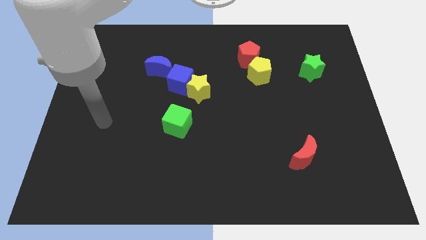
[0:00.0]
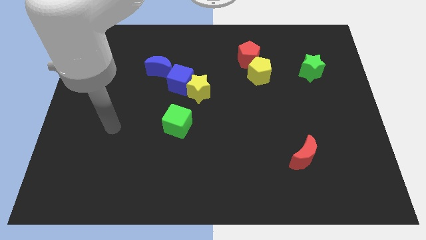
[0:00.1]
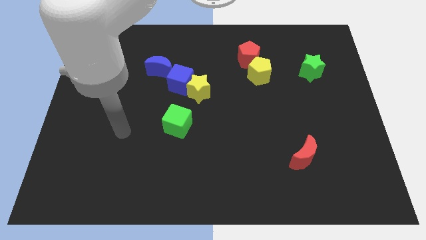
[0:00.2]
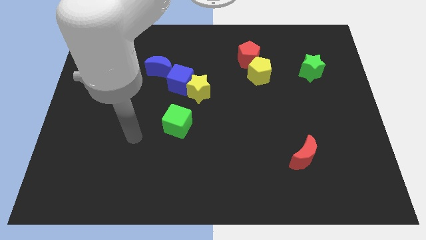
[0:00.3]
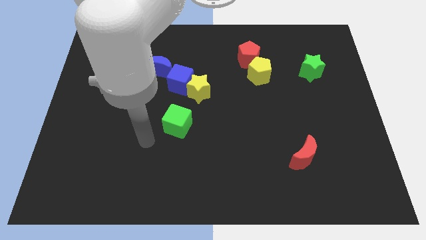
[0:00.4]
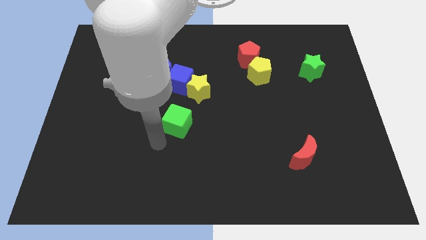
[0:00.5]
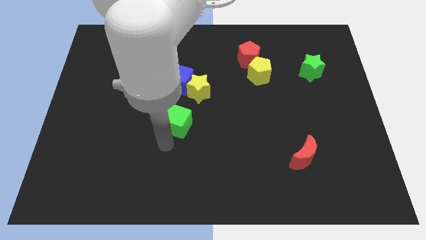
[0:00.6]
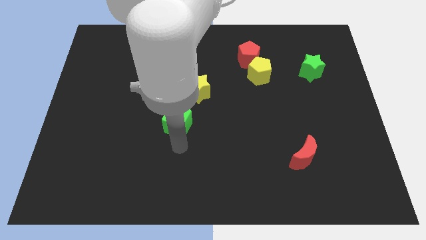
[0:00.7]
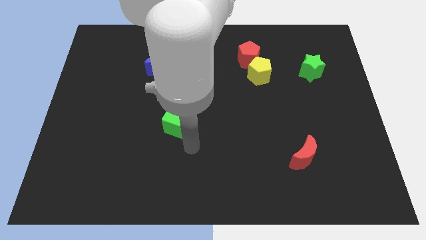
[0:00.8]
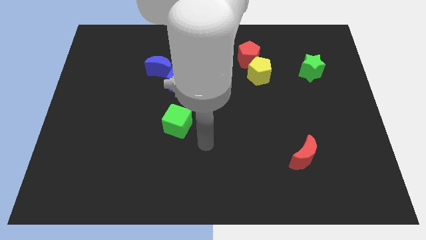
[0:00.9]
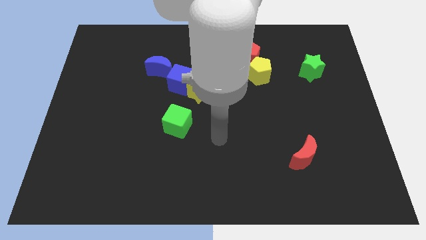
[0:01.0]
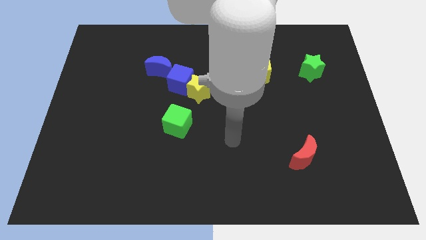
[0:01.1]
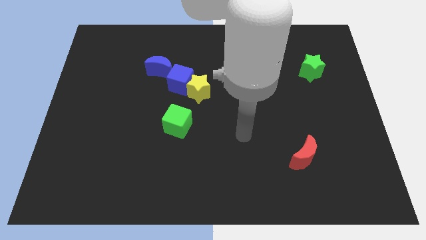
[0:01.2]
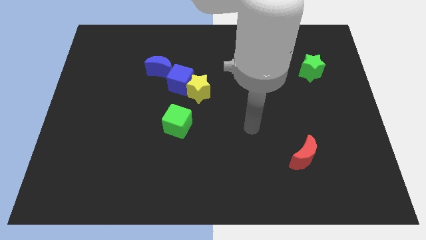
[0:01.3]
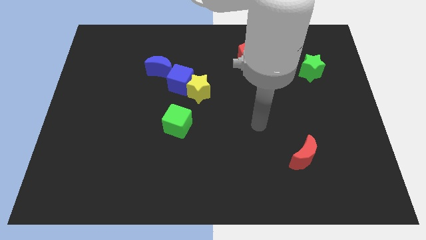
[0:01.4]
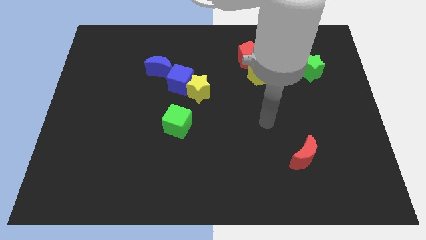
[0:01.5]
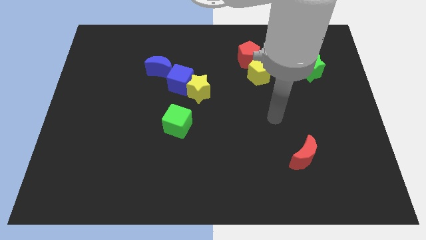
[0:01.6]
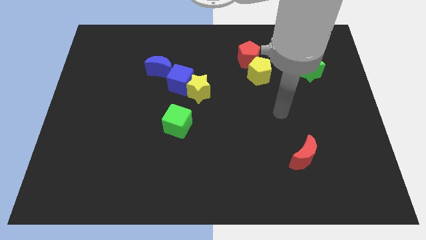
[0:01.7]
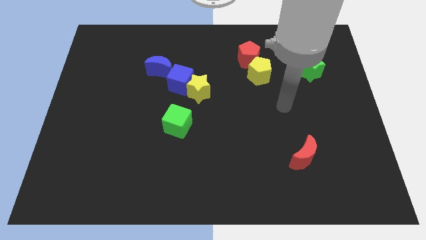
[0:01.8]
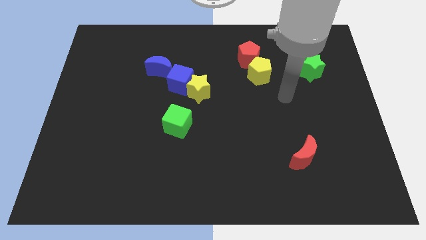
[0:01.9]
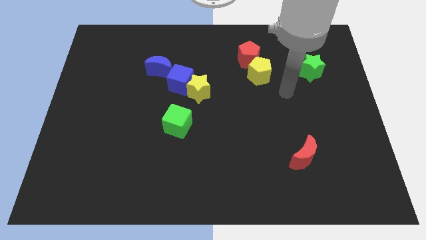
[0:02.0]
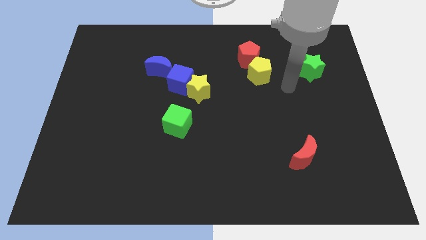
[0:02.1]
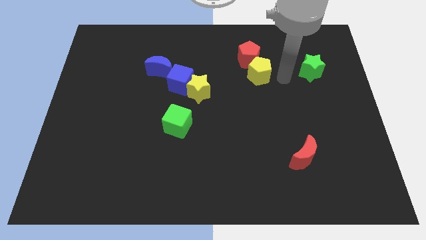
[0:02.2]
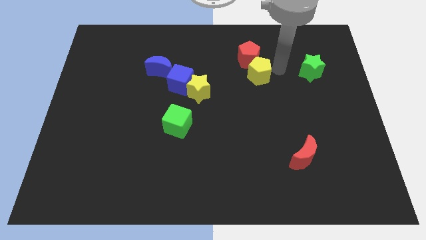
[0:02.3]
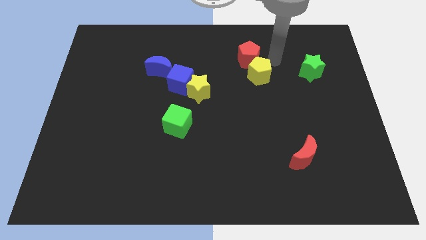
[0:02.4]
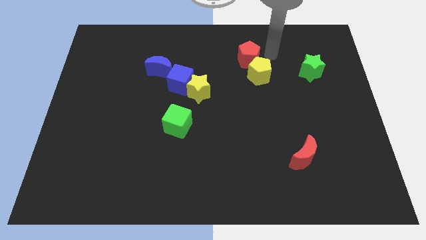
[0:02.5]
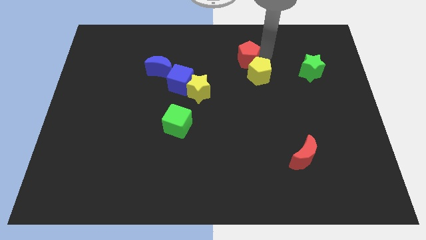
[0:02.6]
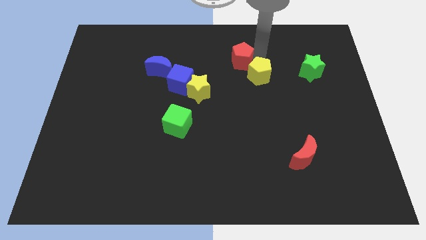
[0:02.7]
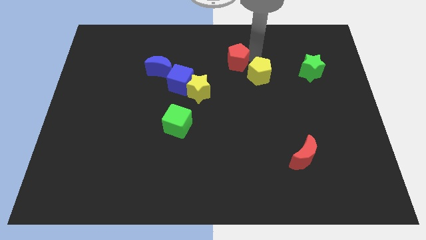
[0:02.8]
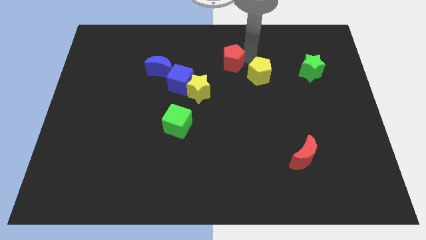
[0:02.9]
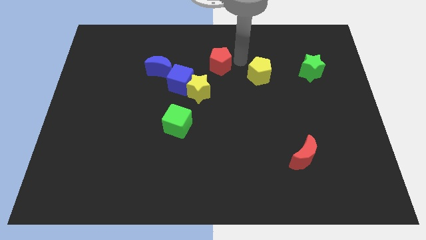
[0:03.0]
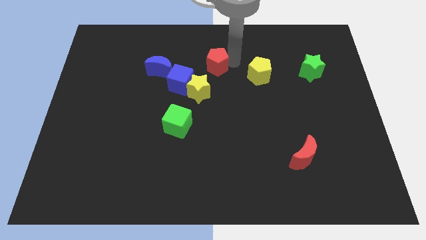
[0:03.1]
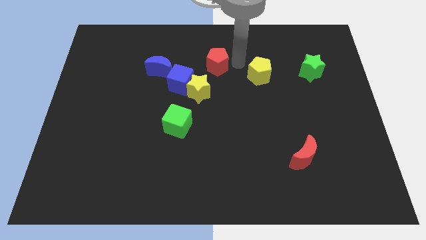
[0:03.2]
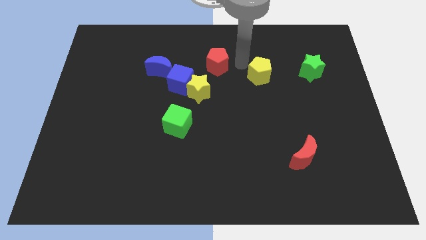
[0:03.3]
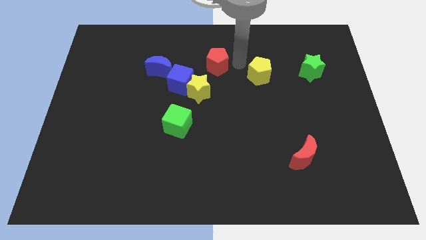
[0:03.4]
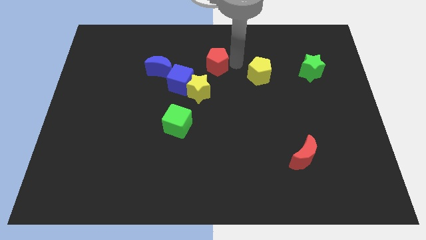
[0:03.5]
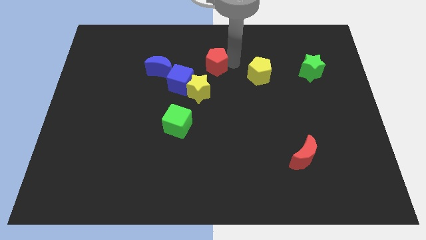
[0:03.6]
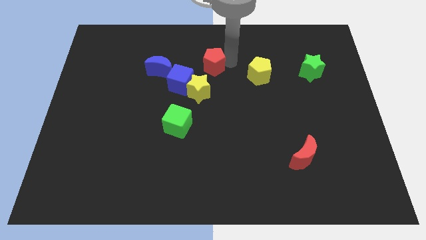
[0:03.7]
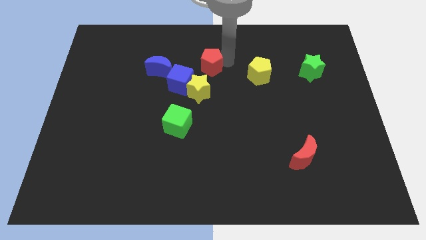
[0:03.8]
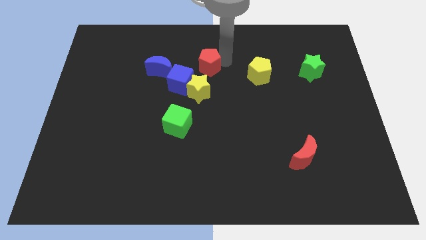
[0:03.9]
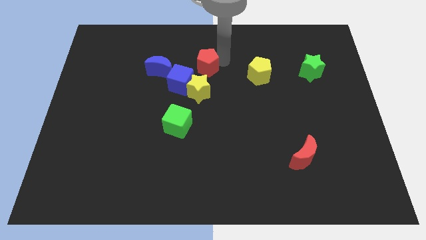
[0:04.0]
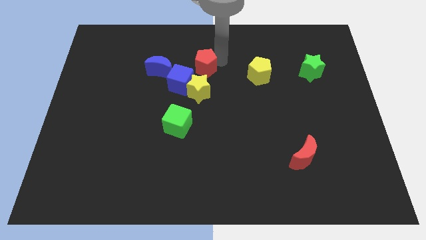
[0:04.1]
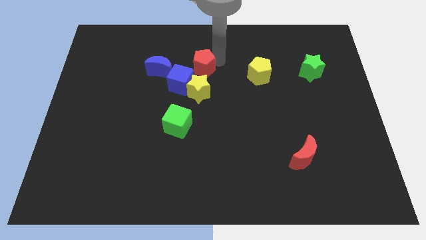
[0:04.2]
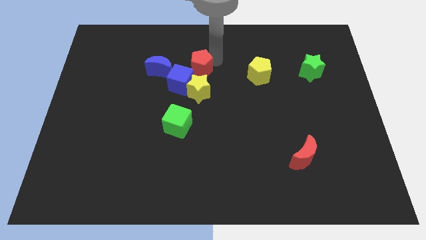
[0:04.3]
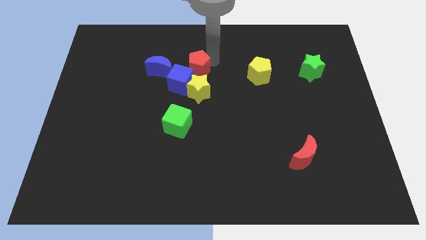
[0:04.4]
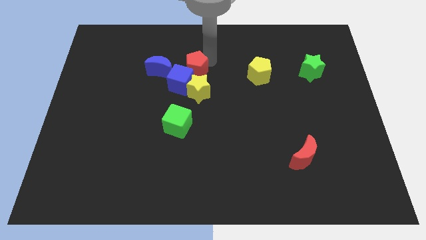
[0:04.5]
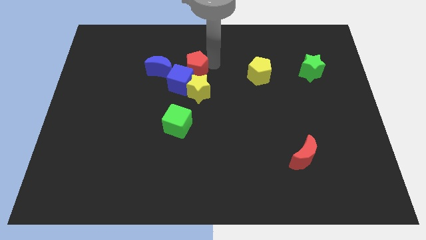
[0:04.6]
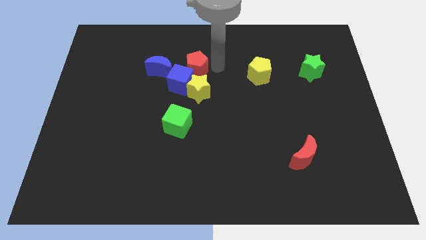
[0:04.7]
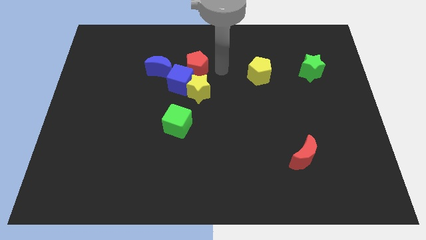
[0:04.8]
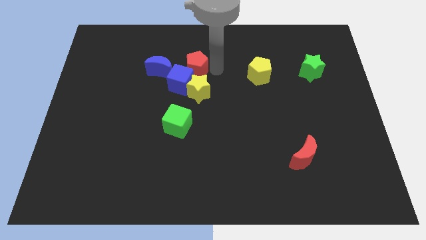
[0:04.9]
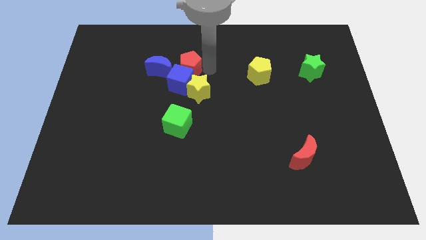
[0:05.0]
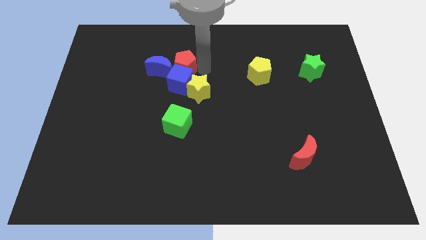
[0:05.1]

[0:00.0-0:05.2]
put the red pentagon towards the blue moon

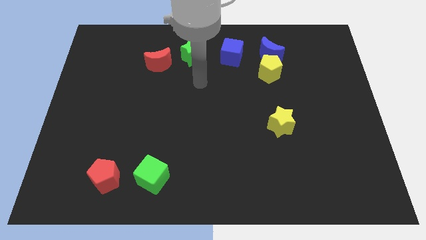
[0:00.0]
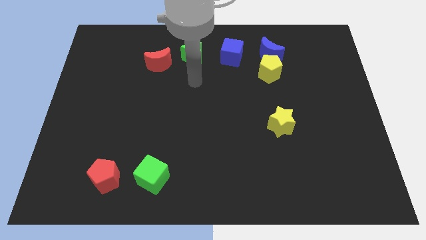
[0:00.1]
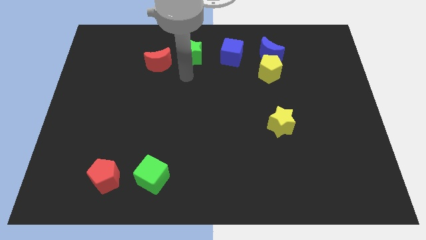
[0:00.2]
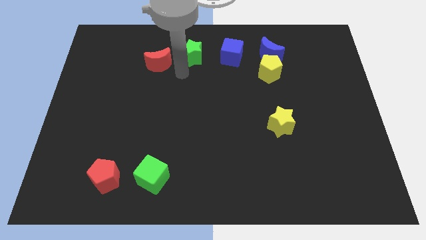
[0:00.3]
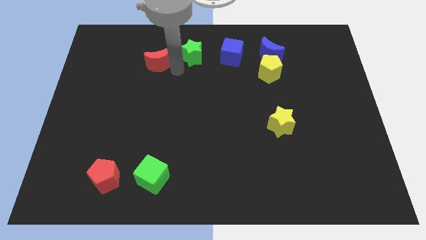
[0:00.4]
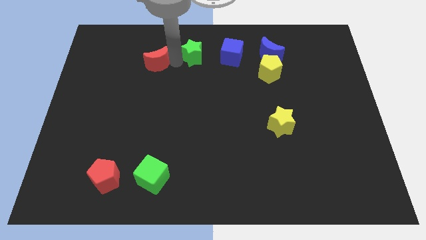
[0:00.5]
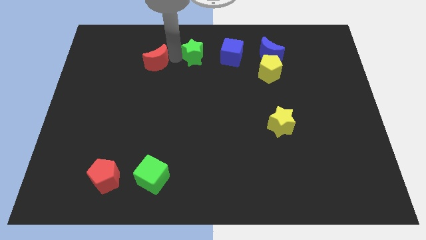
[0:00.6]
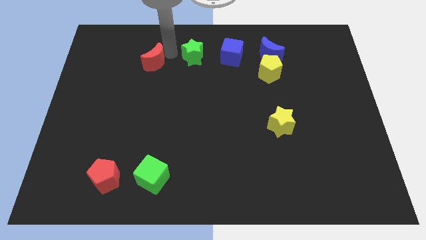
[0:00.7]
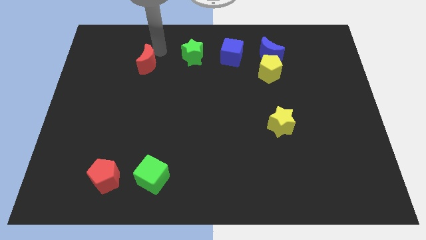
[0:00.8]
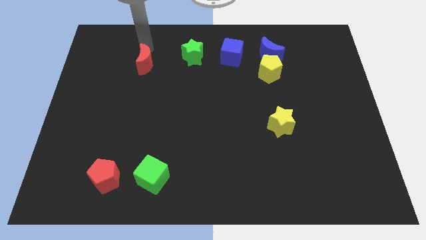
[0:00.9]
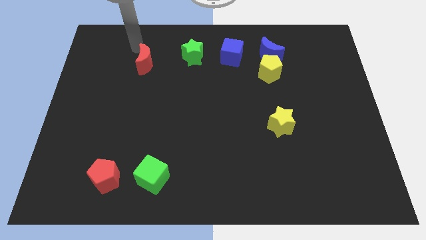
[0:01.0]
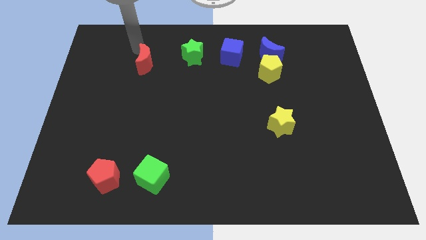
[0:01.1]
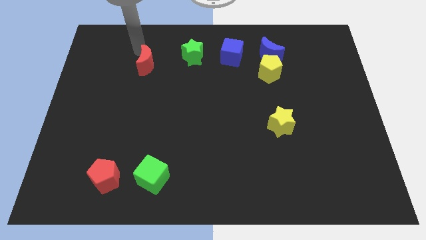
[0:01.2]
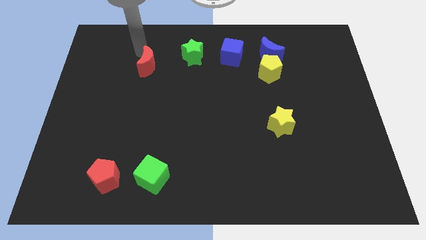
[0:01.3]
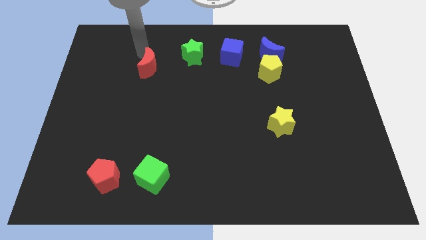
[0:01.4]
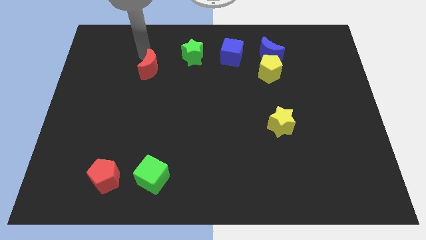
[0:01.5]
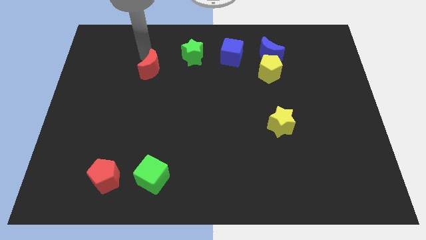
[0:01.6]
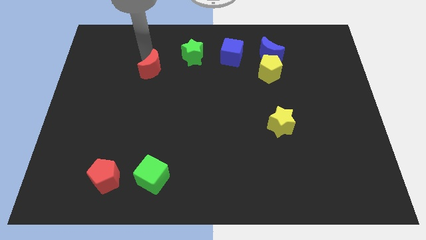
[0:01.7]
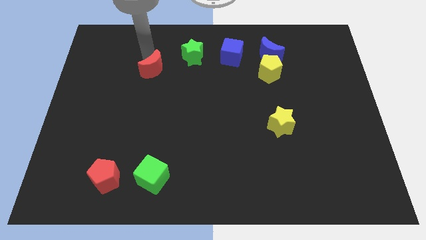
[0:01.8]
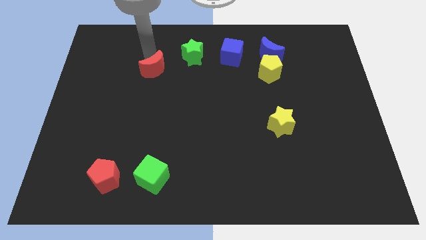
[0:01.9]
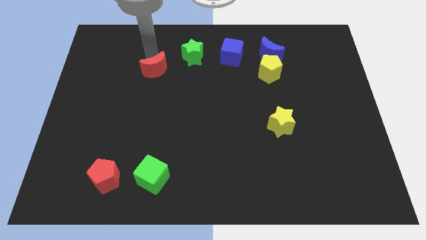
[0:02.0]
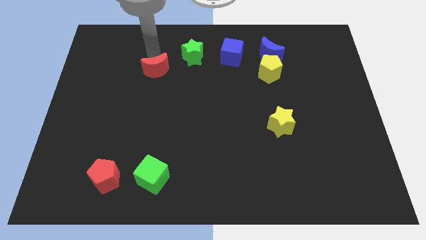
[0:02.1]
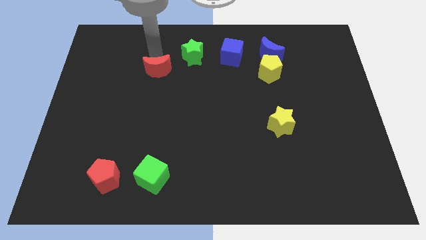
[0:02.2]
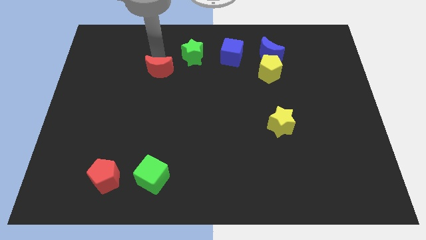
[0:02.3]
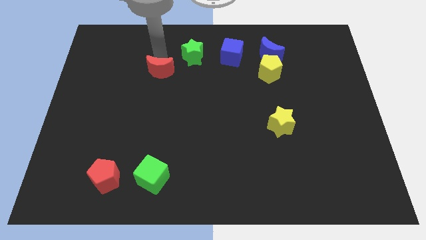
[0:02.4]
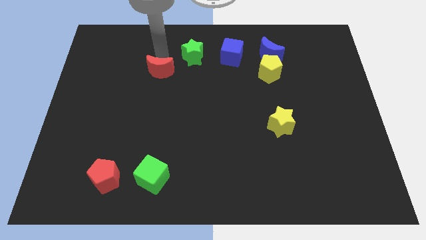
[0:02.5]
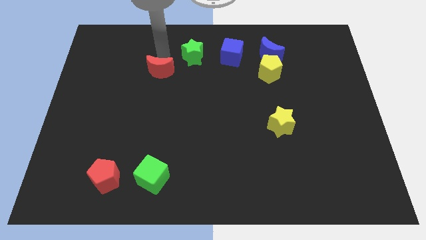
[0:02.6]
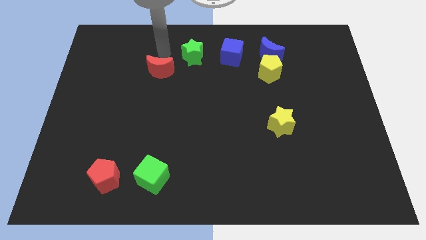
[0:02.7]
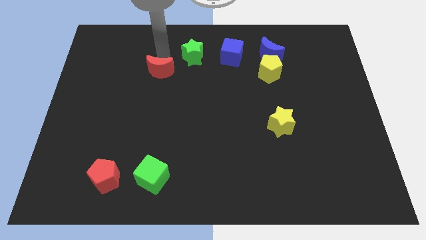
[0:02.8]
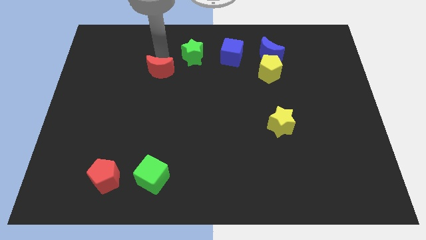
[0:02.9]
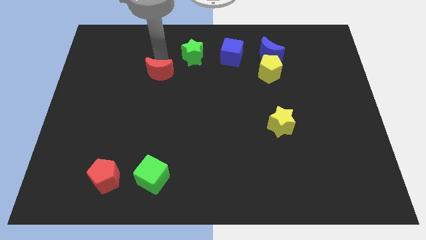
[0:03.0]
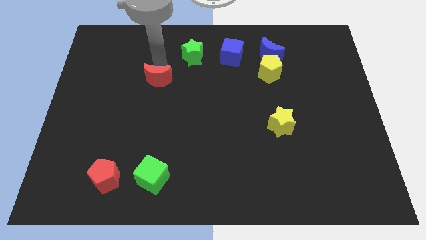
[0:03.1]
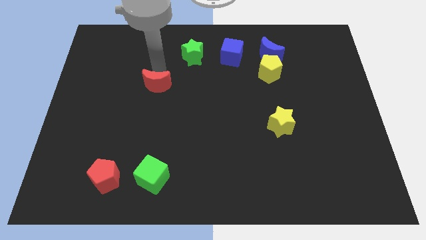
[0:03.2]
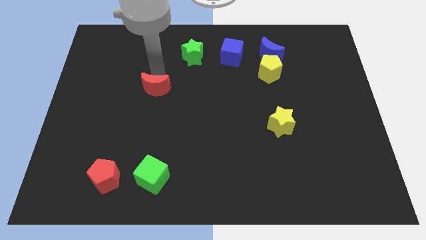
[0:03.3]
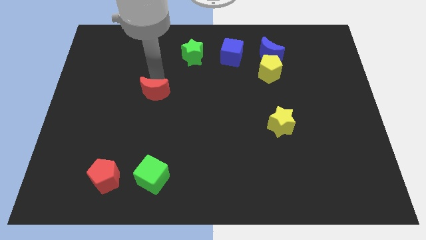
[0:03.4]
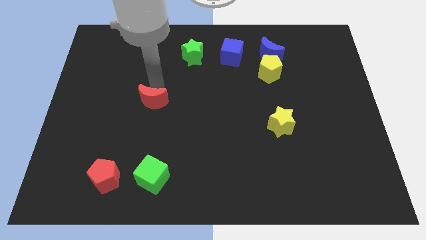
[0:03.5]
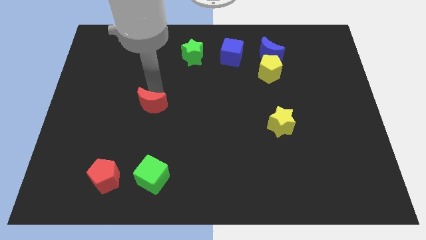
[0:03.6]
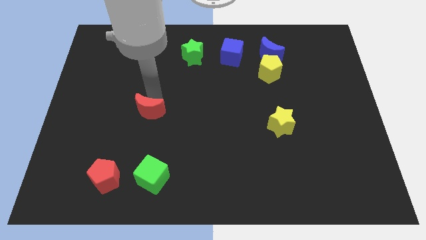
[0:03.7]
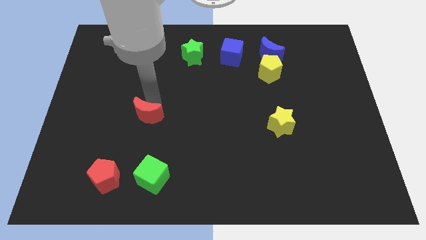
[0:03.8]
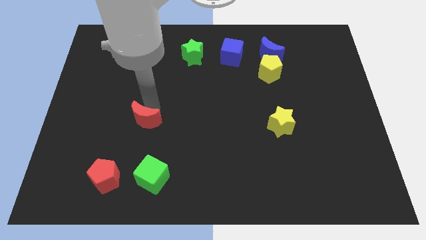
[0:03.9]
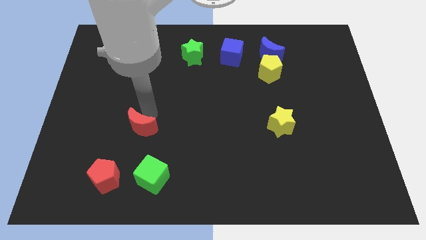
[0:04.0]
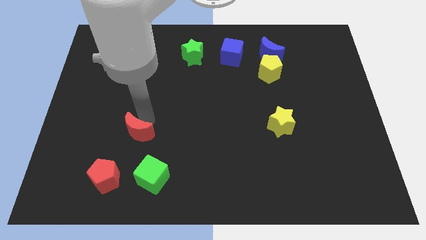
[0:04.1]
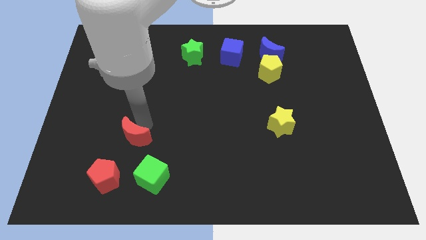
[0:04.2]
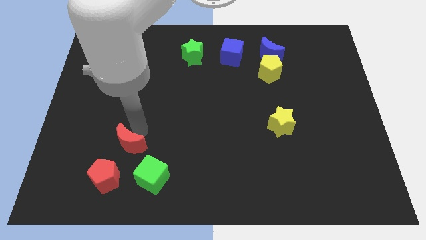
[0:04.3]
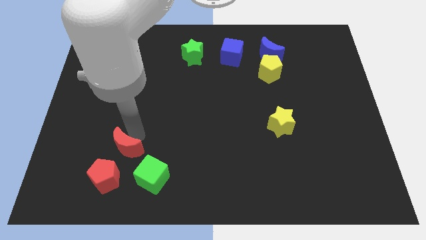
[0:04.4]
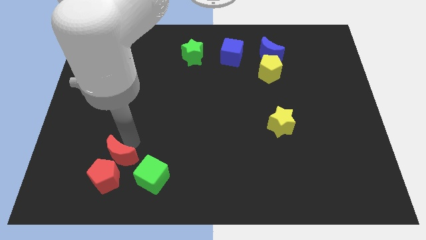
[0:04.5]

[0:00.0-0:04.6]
put the red moon to the red pentagon
